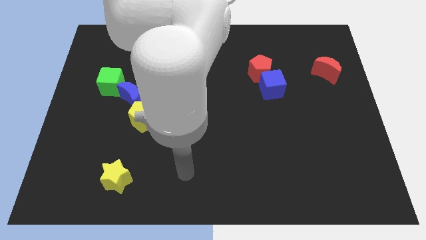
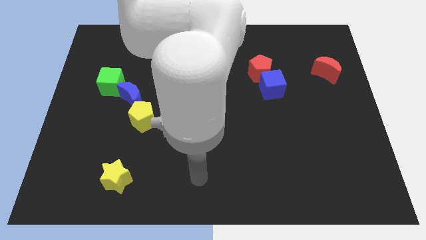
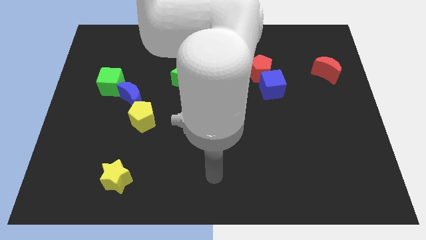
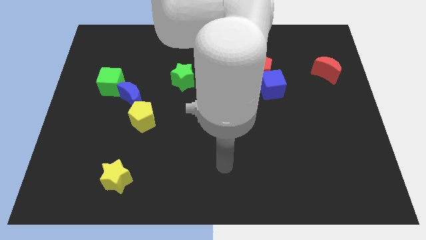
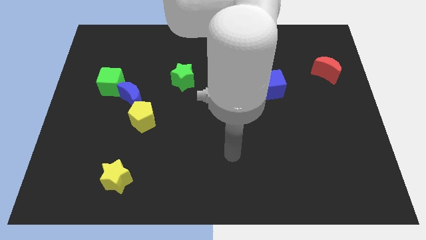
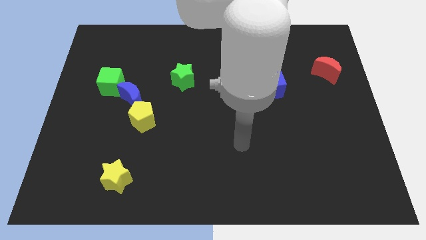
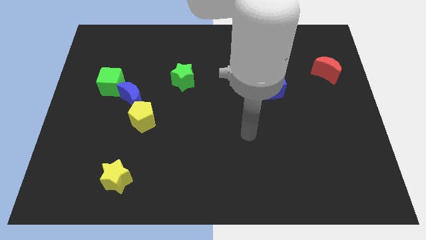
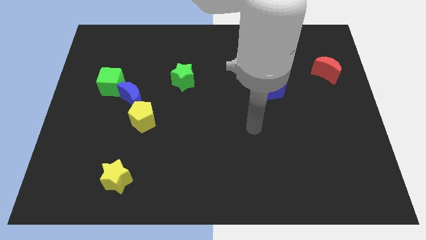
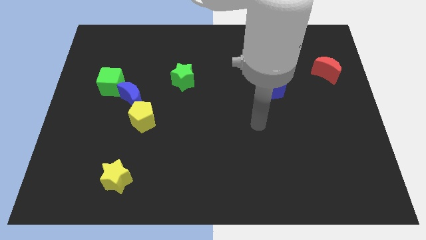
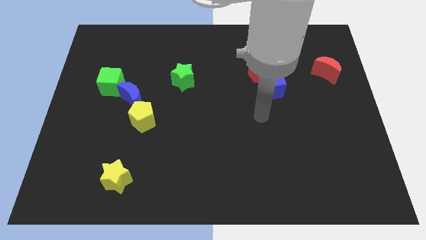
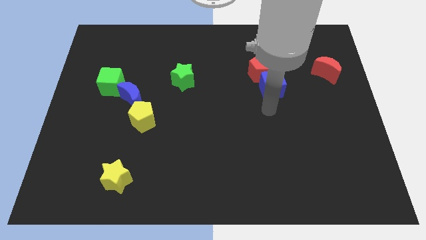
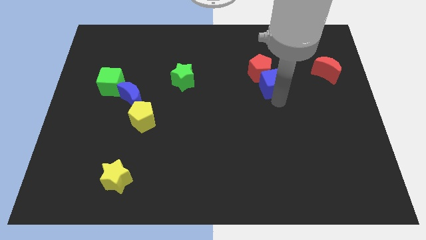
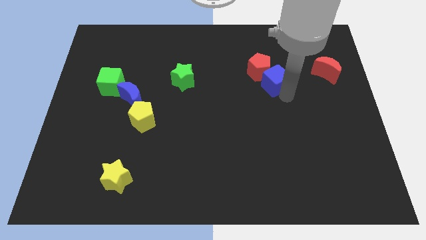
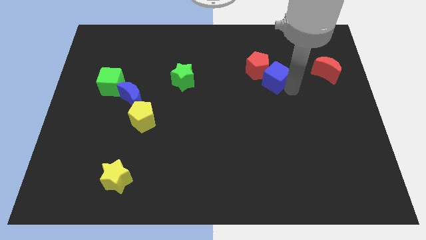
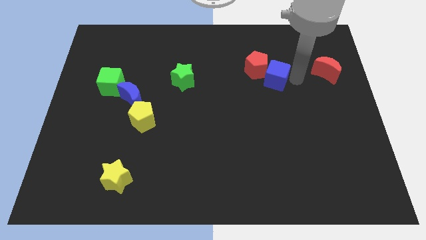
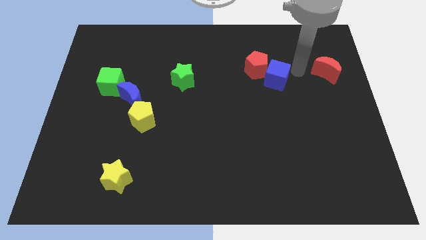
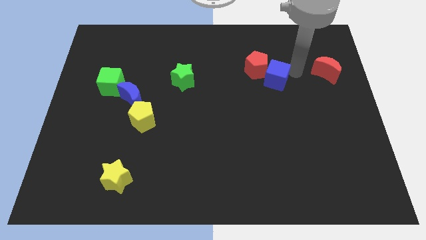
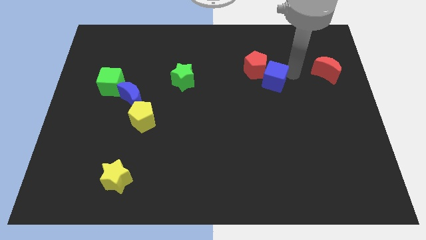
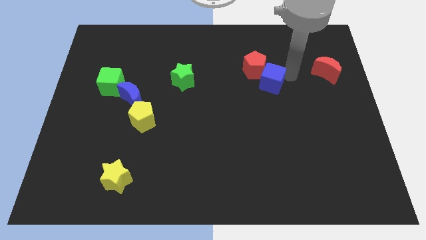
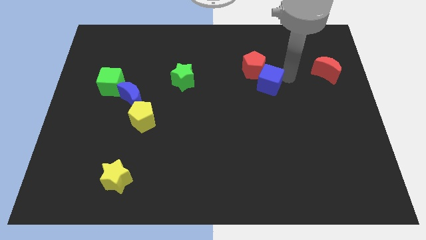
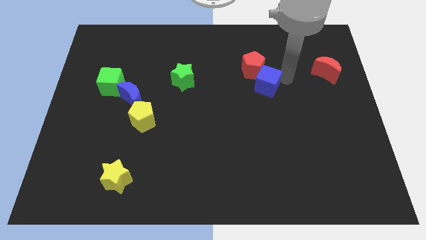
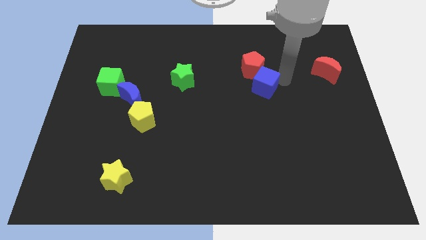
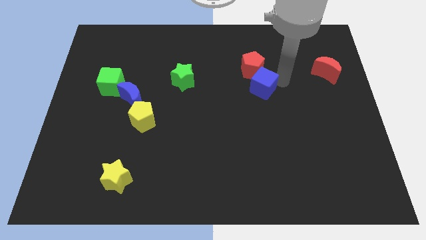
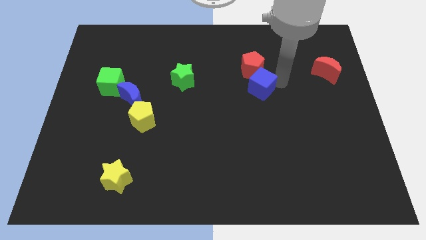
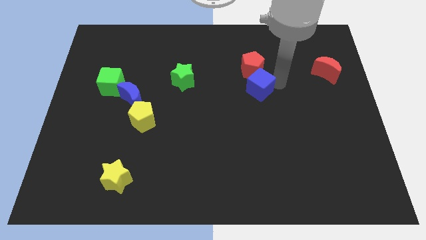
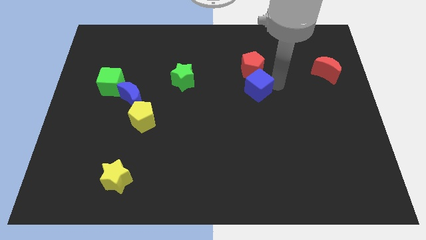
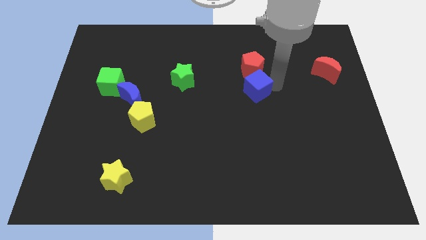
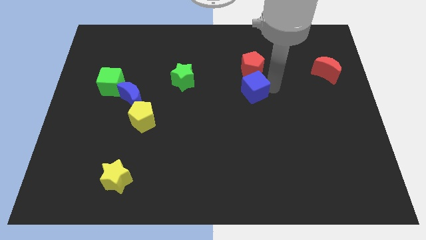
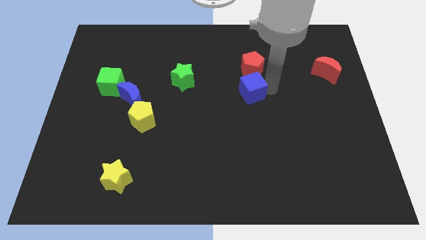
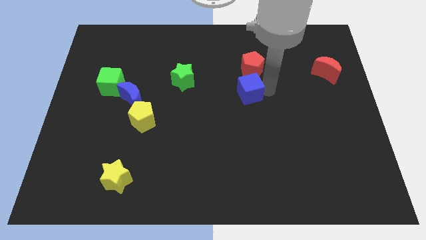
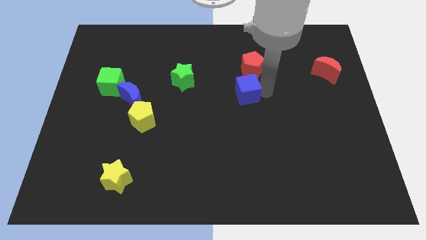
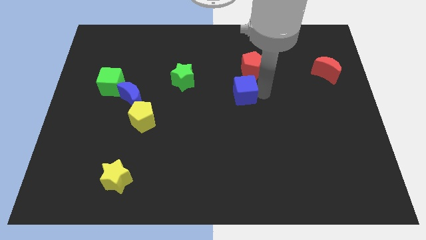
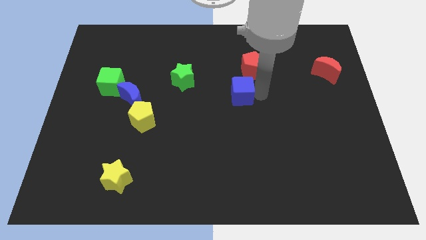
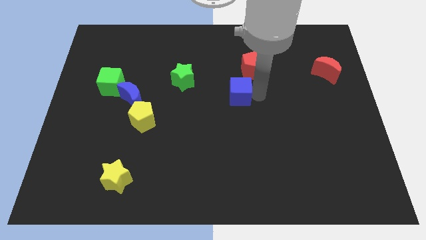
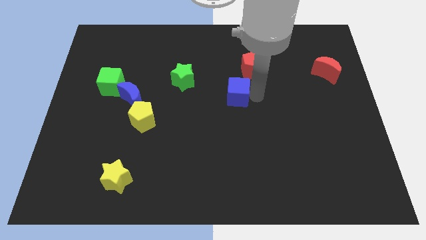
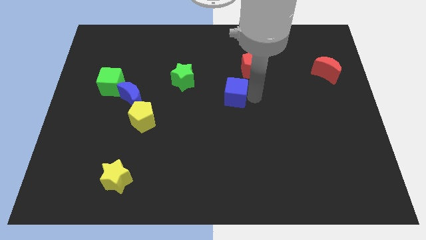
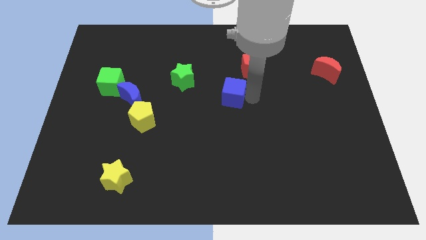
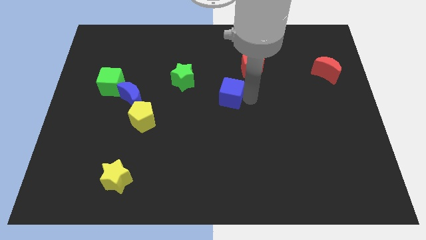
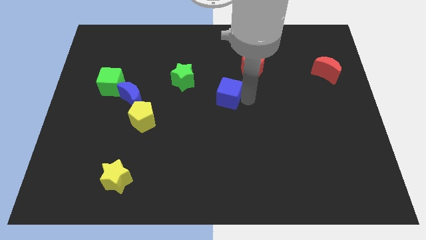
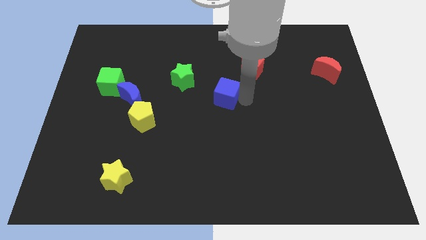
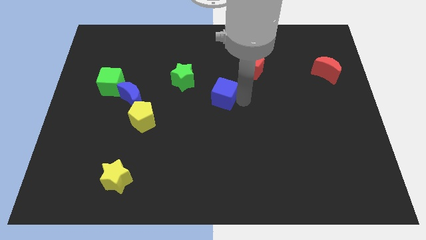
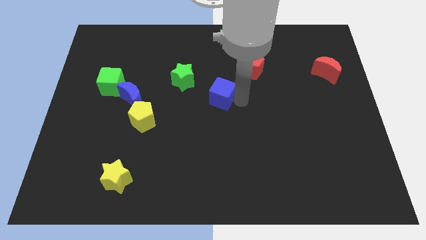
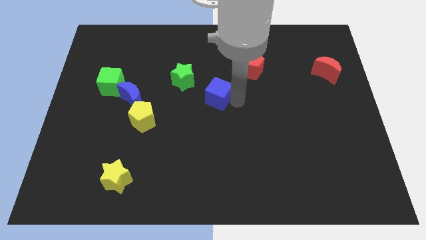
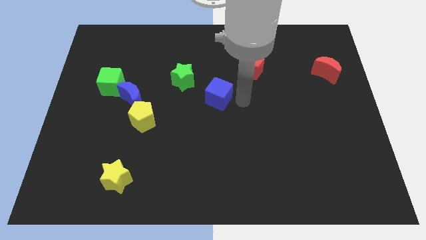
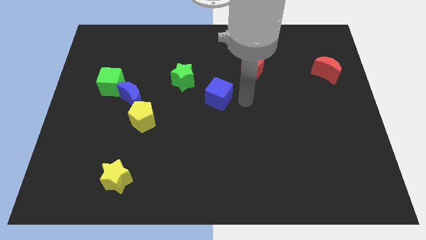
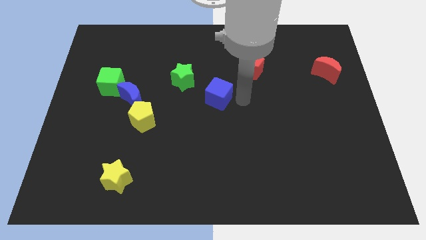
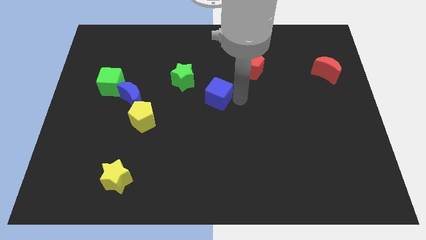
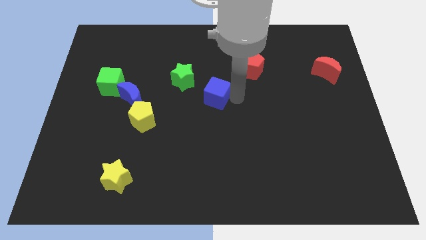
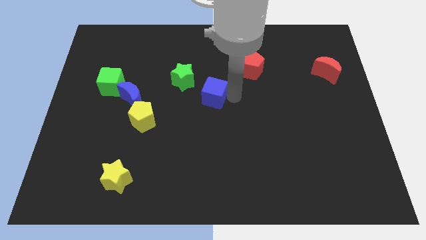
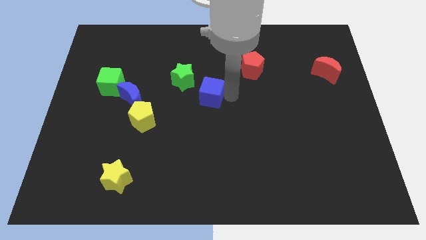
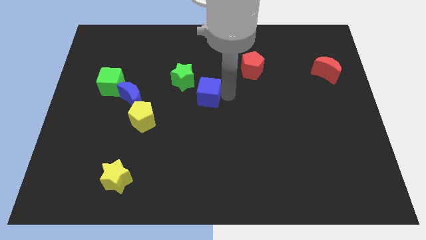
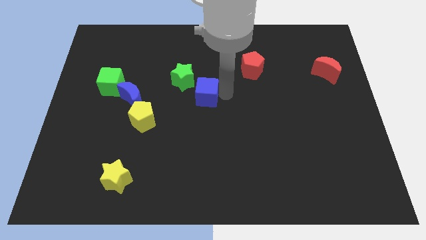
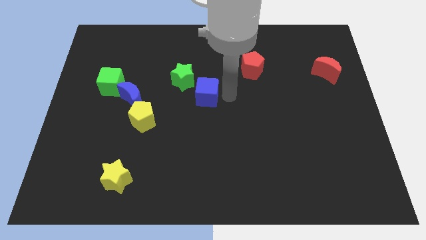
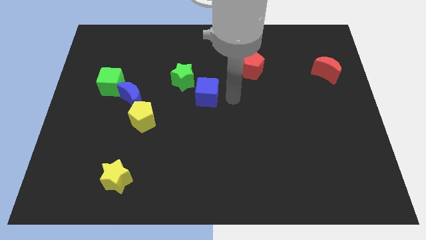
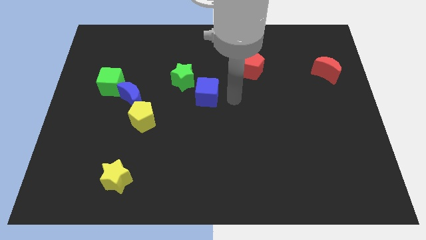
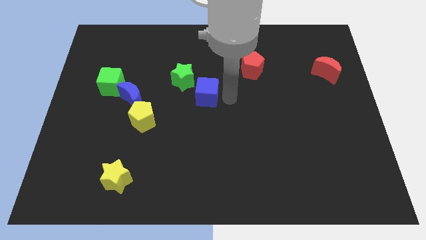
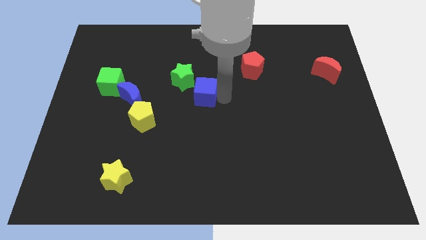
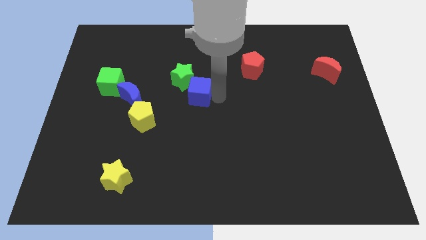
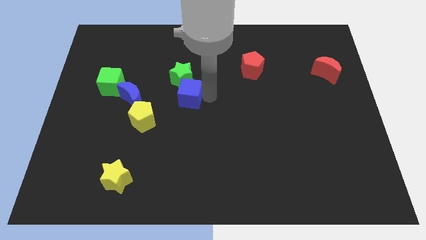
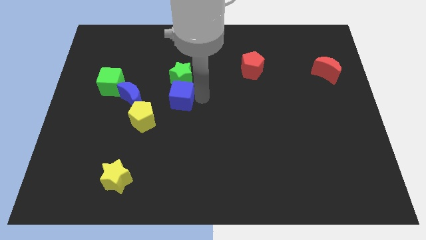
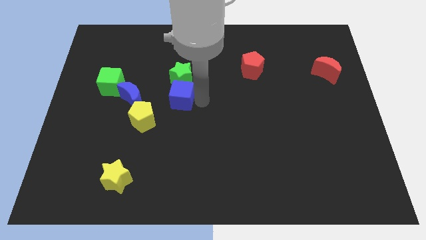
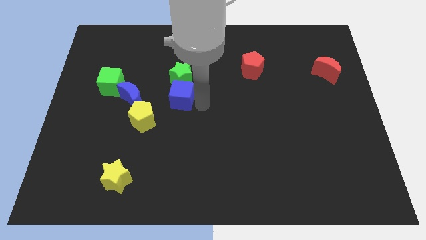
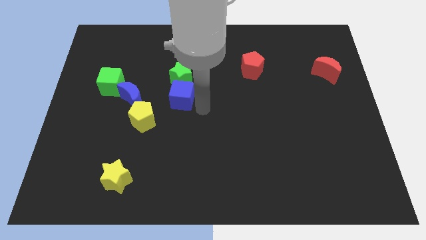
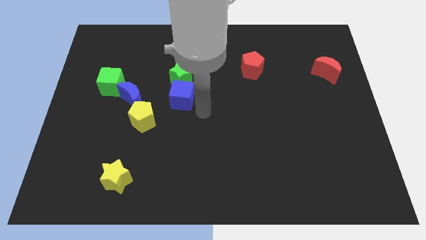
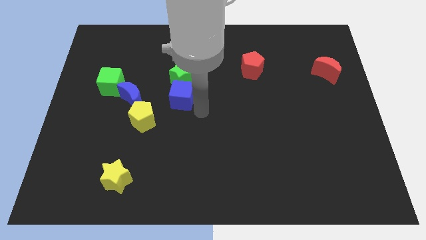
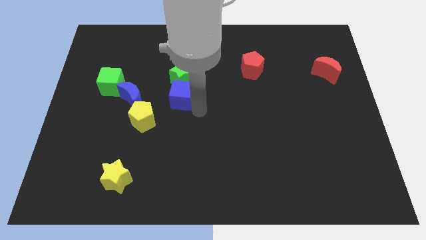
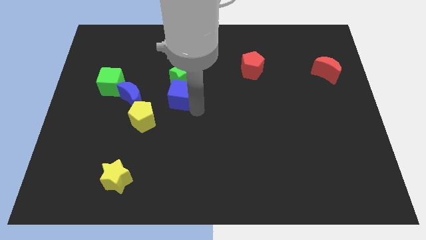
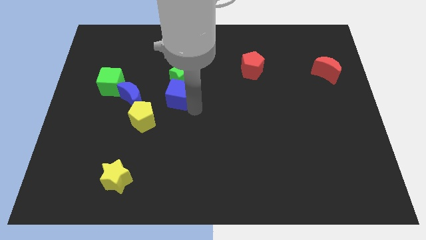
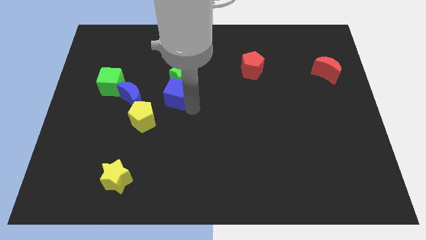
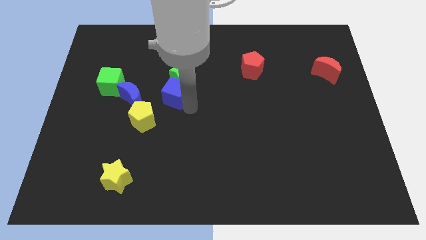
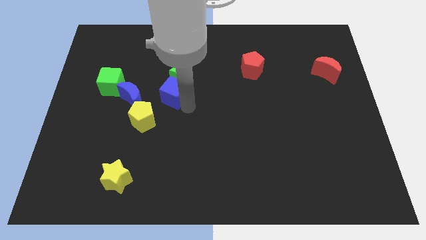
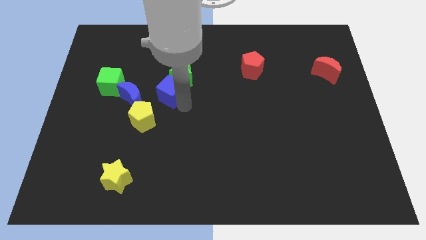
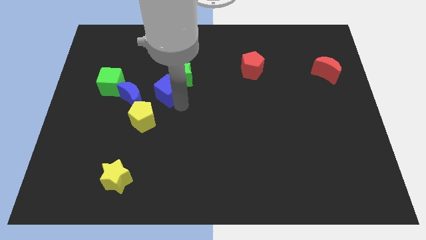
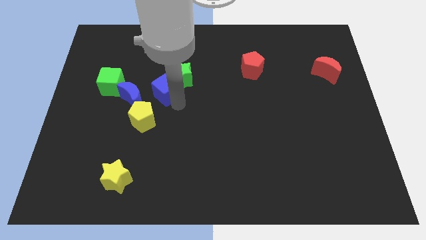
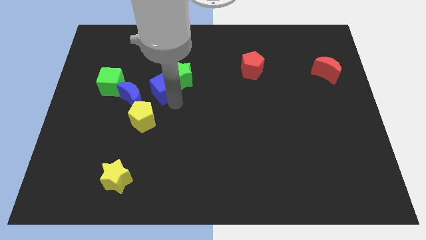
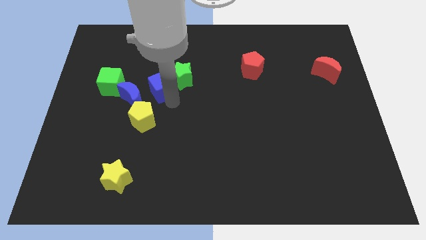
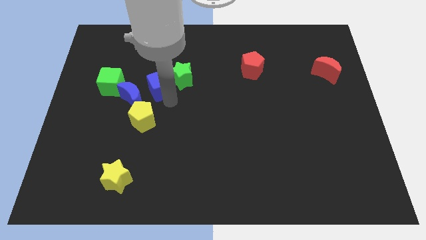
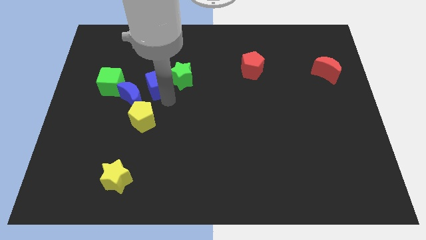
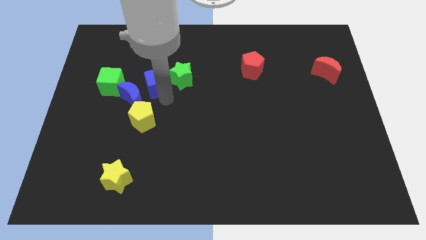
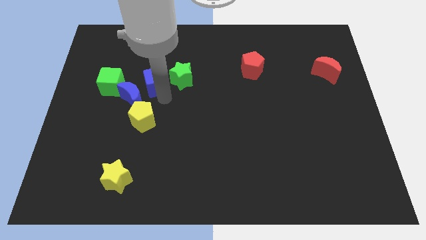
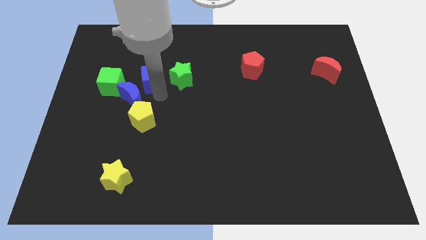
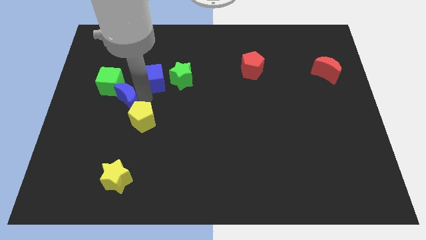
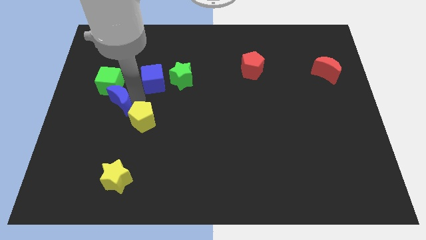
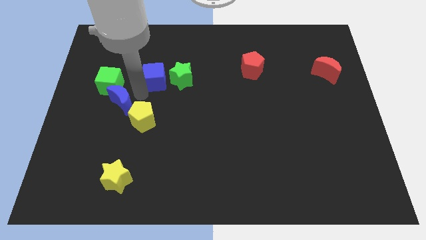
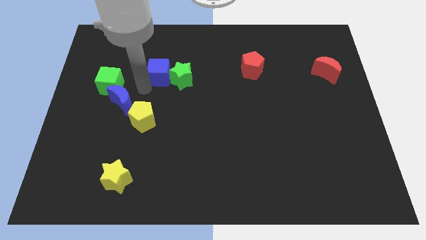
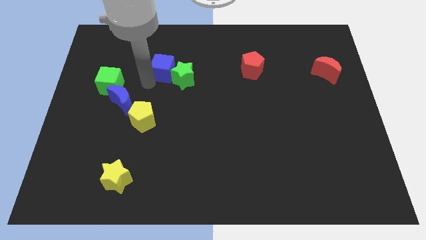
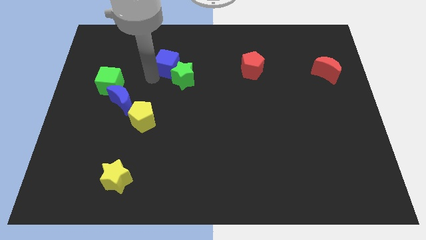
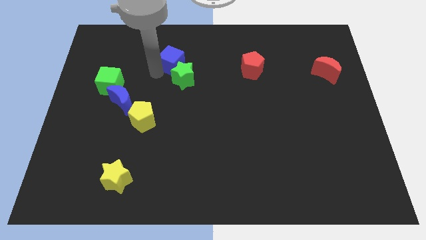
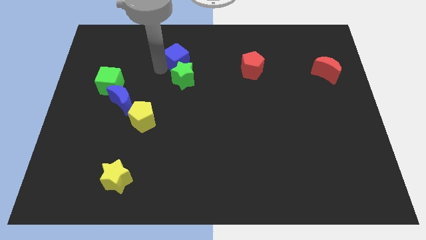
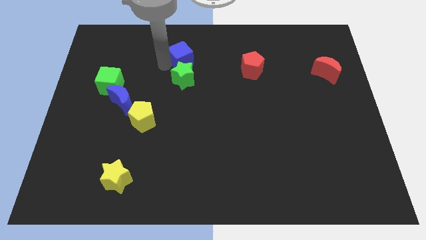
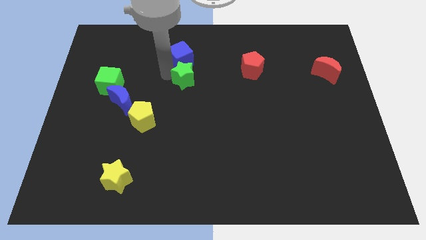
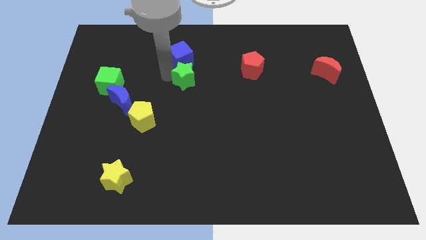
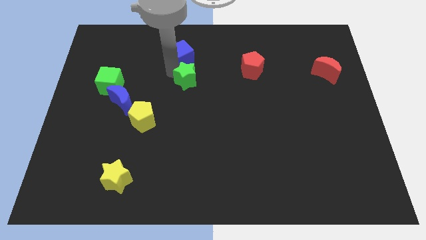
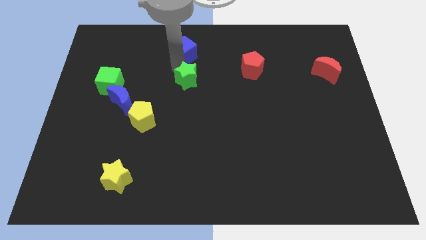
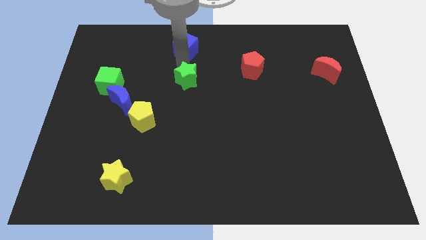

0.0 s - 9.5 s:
push the blue cube to the towards your base
